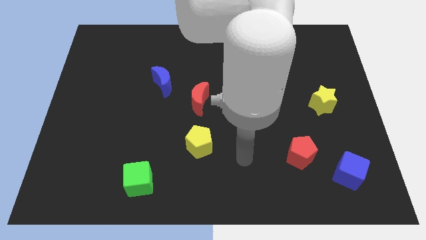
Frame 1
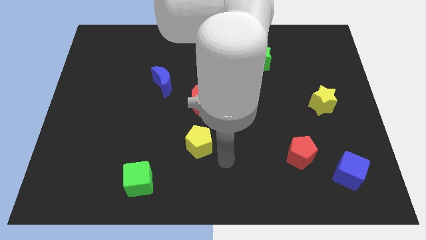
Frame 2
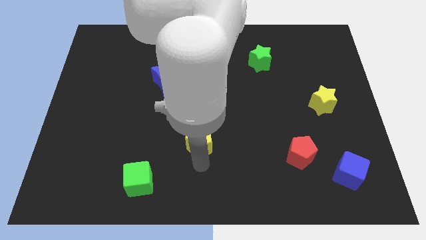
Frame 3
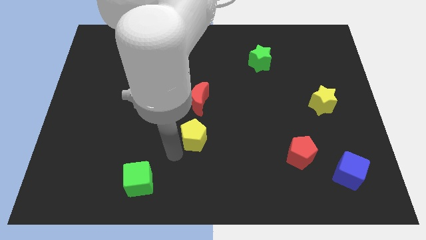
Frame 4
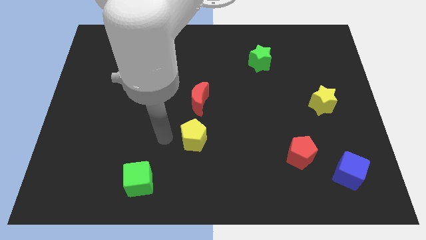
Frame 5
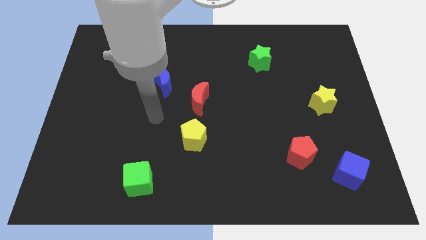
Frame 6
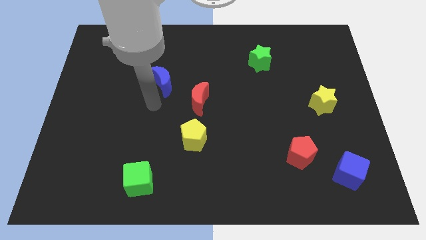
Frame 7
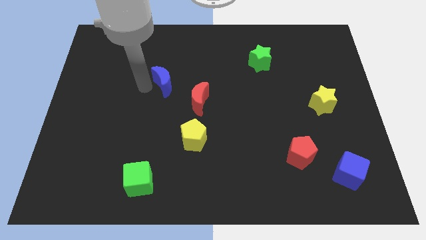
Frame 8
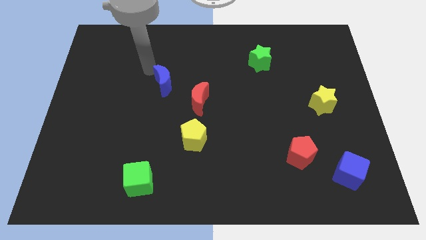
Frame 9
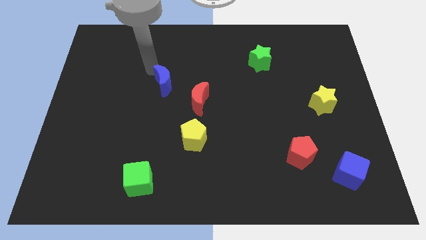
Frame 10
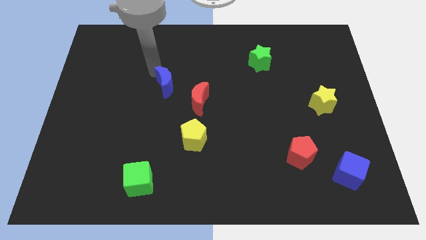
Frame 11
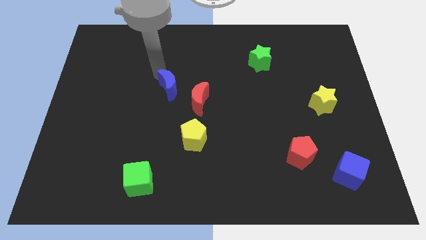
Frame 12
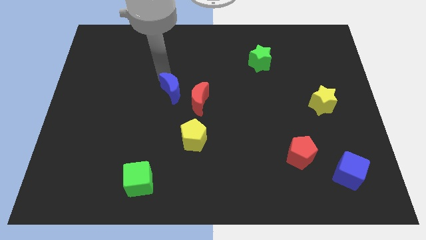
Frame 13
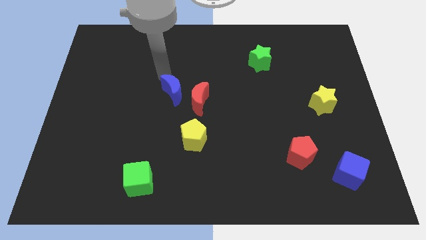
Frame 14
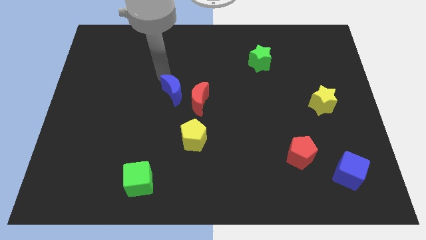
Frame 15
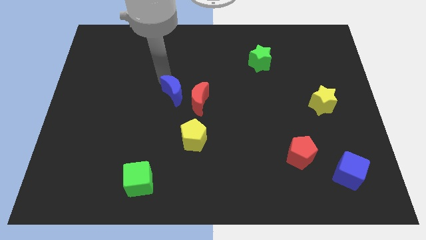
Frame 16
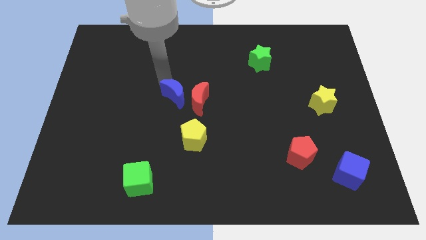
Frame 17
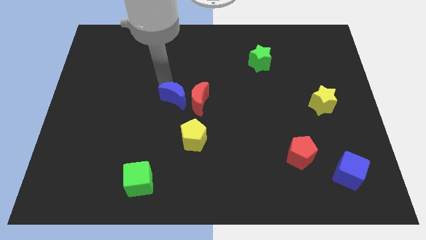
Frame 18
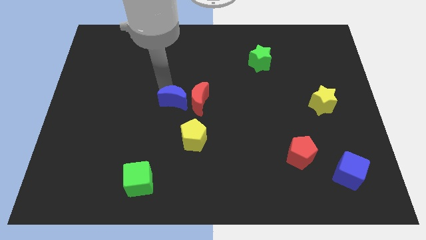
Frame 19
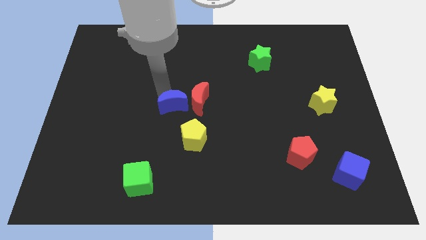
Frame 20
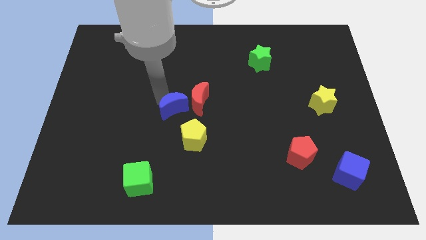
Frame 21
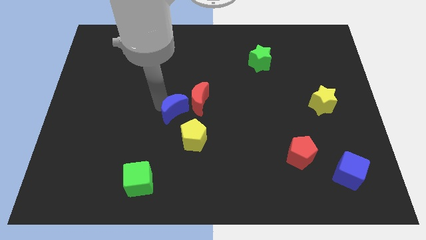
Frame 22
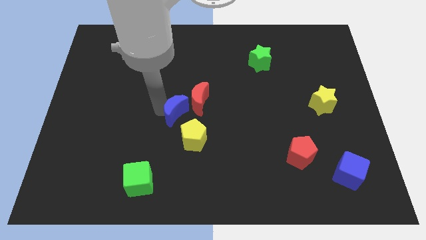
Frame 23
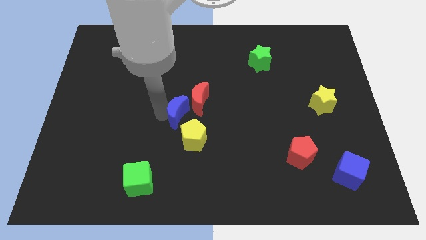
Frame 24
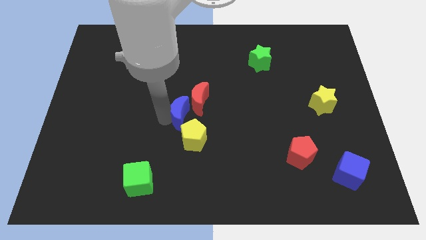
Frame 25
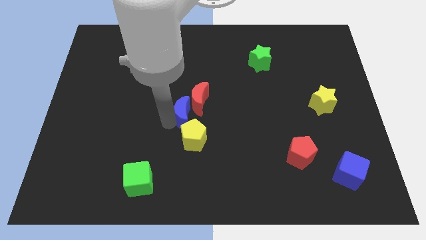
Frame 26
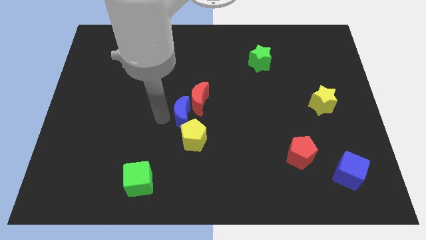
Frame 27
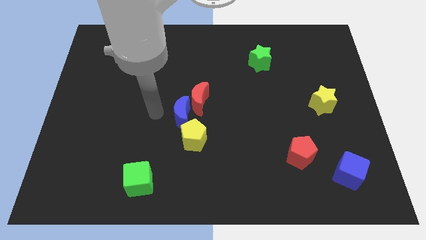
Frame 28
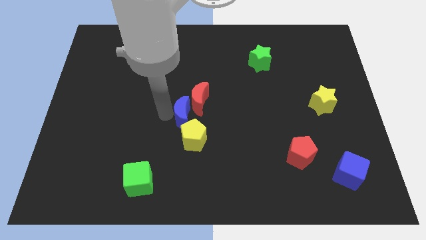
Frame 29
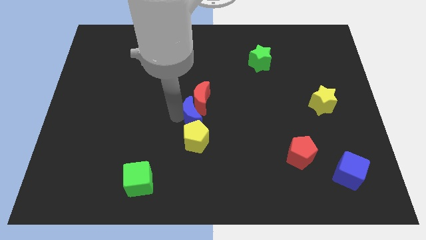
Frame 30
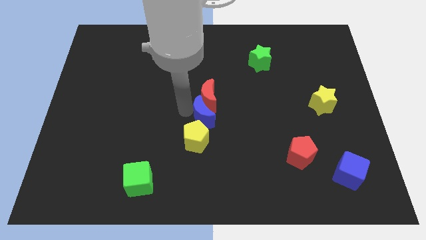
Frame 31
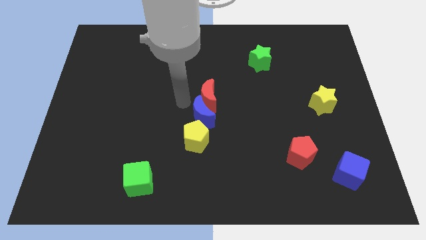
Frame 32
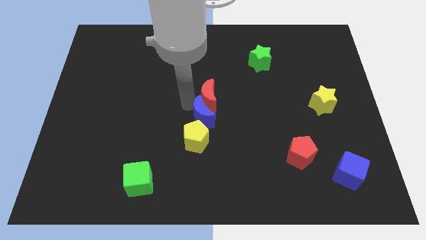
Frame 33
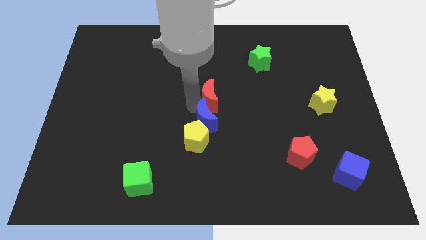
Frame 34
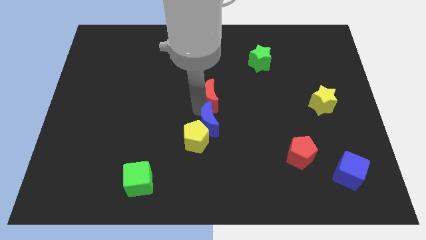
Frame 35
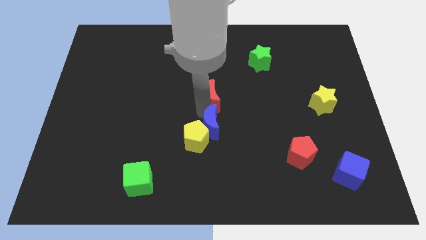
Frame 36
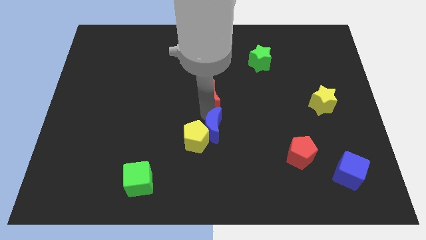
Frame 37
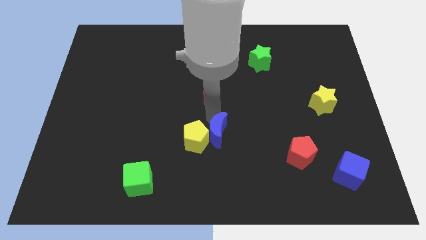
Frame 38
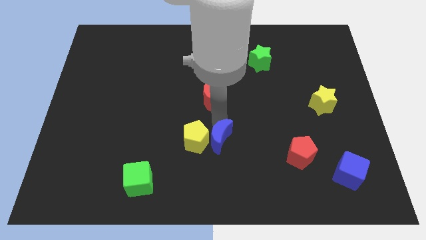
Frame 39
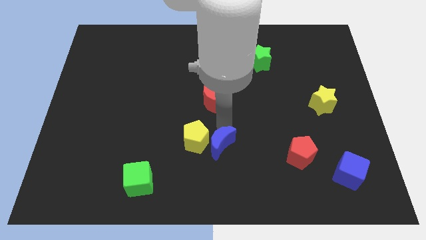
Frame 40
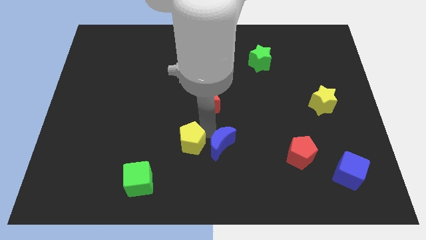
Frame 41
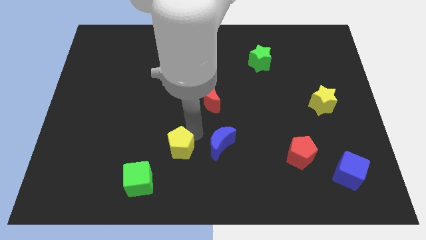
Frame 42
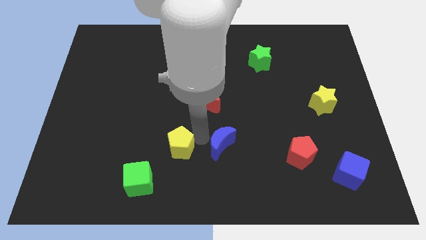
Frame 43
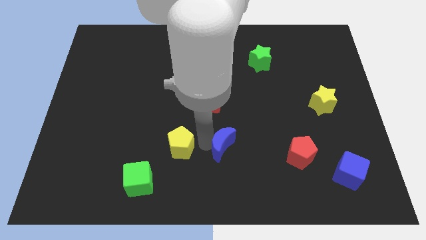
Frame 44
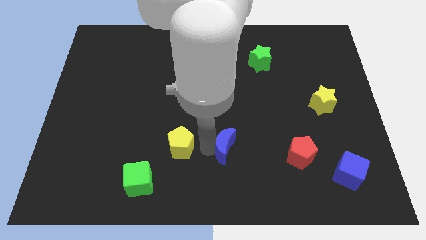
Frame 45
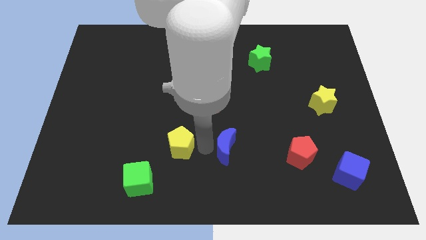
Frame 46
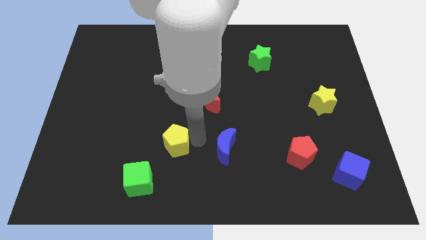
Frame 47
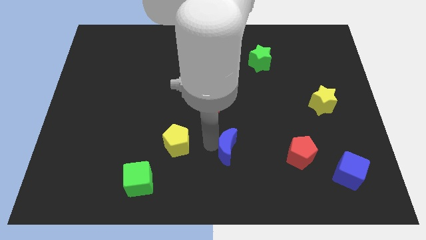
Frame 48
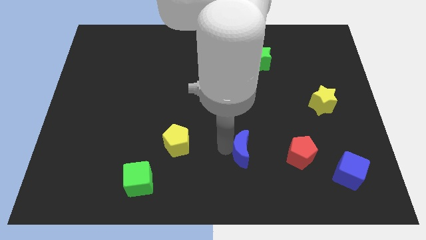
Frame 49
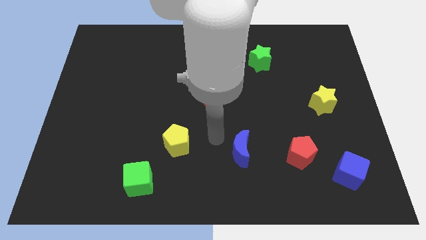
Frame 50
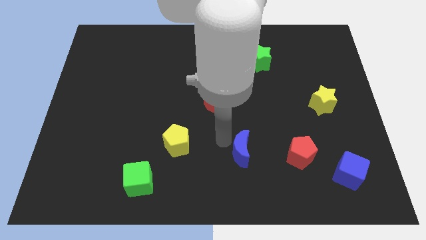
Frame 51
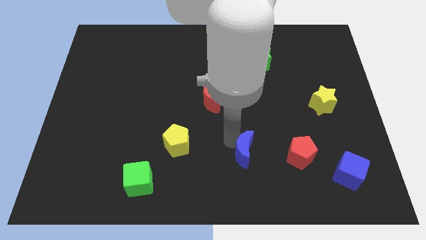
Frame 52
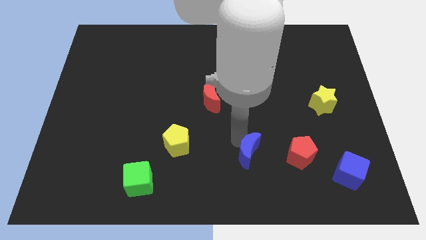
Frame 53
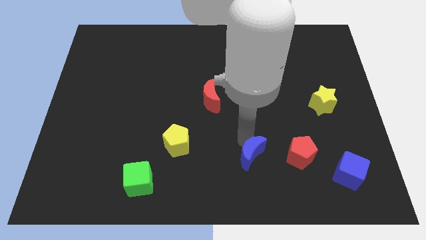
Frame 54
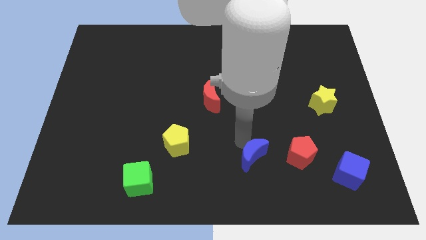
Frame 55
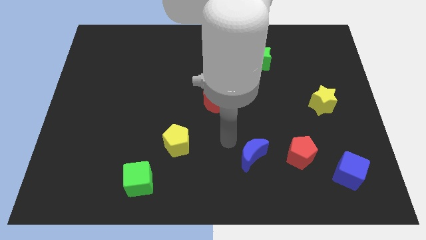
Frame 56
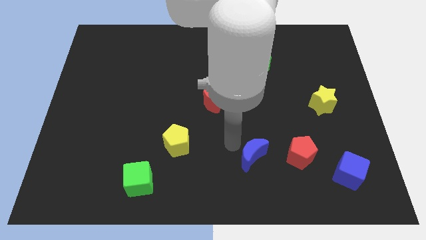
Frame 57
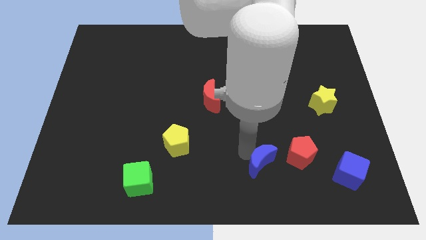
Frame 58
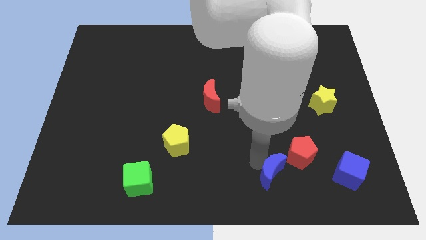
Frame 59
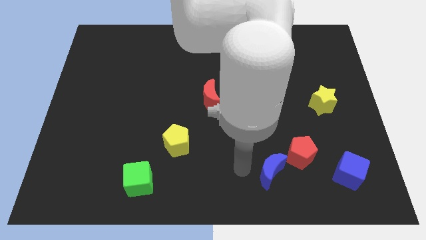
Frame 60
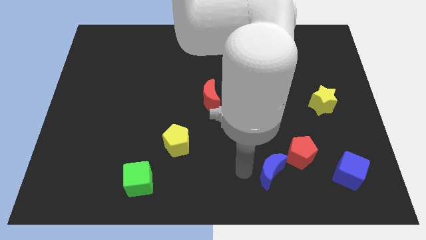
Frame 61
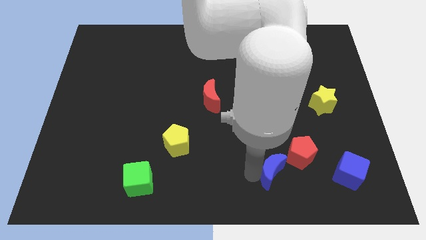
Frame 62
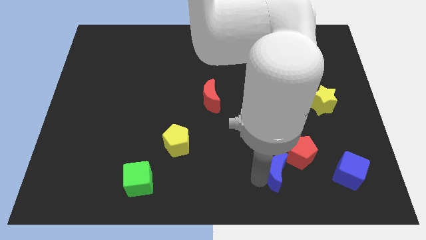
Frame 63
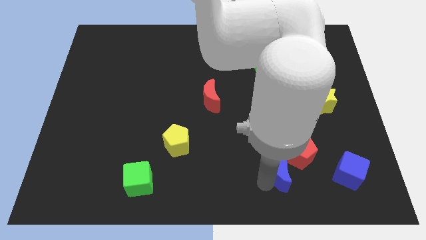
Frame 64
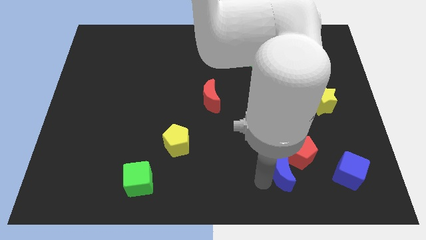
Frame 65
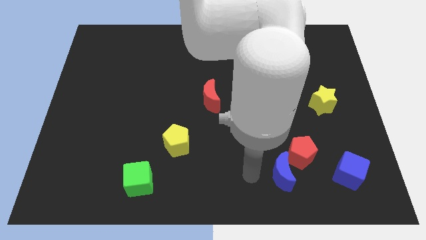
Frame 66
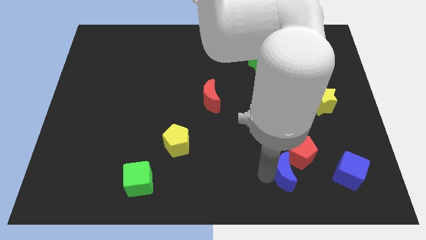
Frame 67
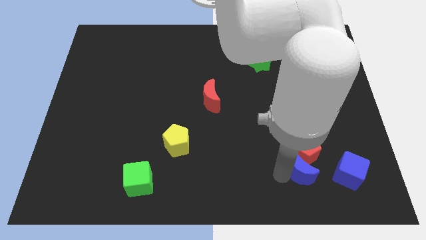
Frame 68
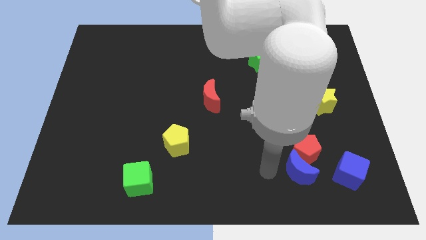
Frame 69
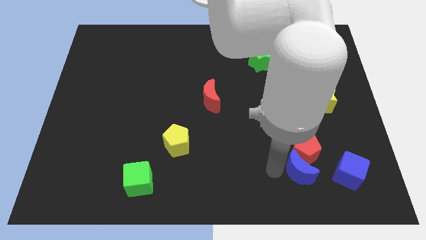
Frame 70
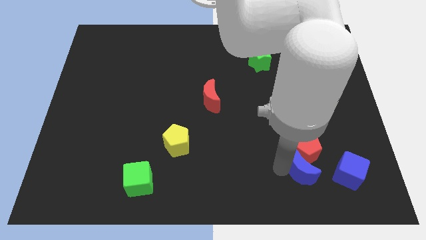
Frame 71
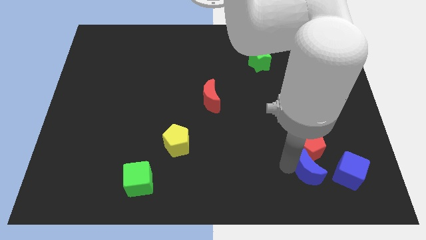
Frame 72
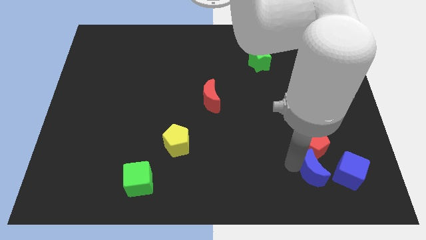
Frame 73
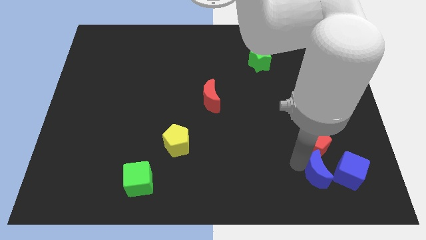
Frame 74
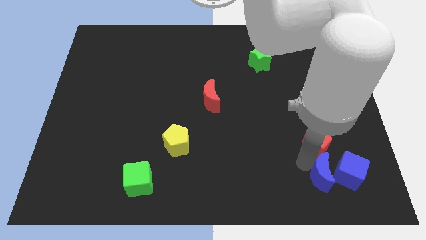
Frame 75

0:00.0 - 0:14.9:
push the blue moon close to the blue cube
